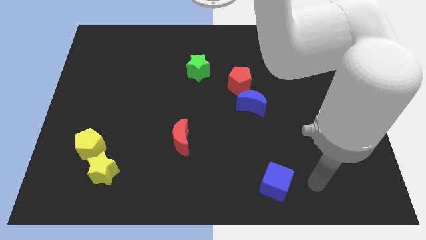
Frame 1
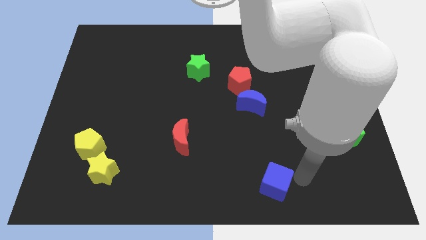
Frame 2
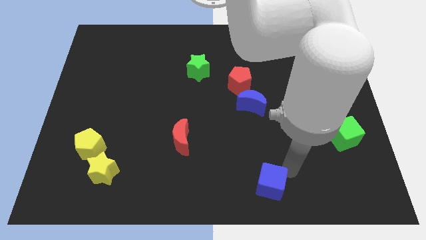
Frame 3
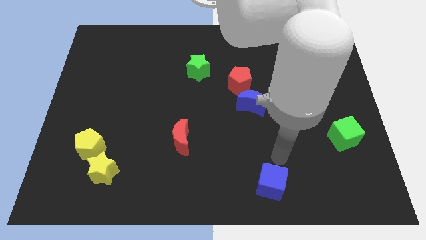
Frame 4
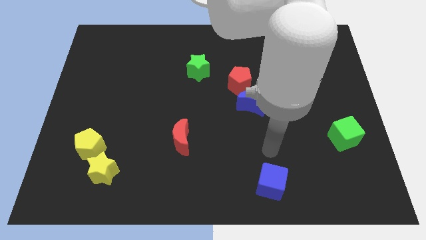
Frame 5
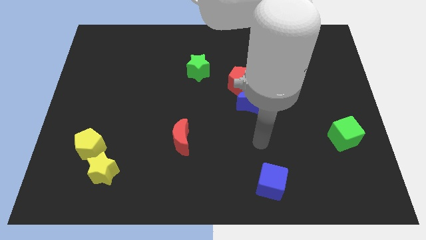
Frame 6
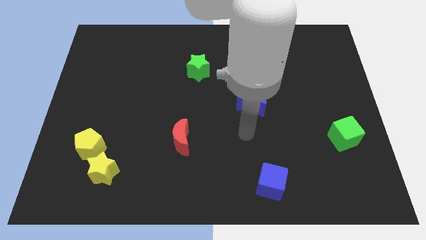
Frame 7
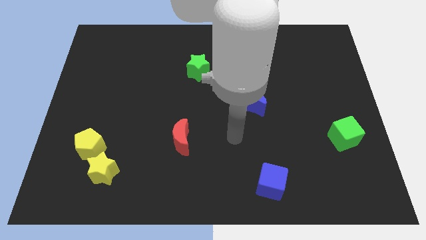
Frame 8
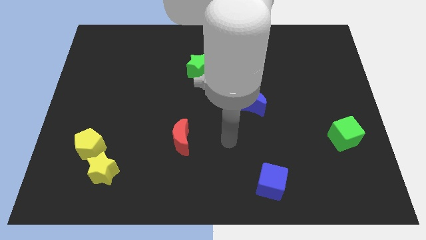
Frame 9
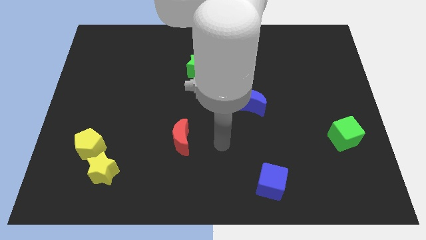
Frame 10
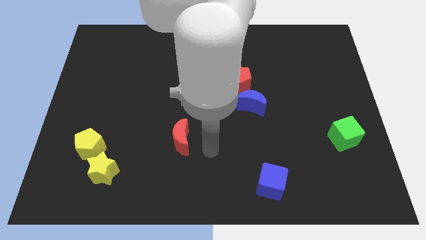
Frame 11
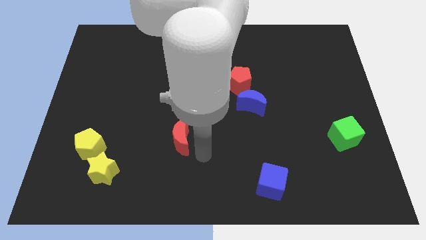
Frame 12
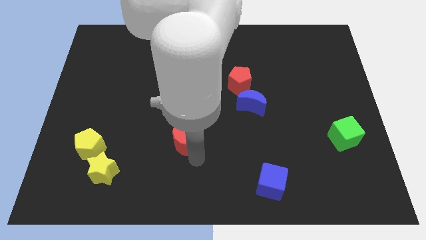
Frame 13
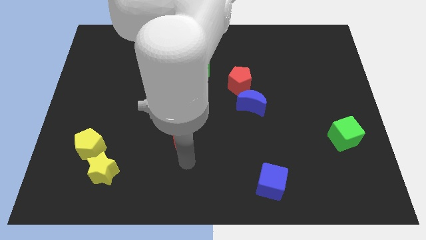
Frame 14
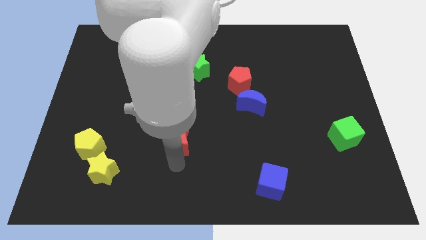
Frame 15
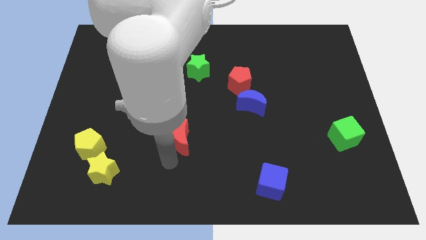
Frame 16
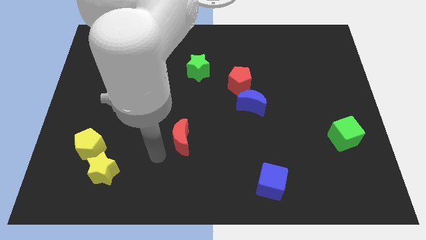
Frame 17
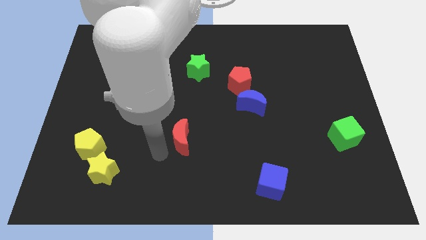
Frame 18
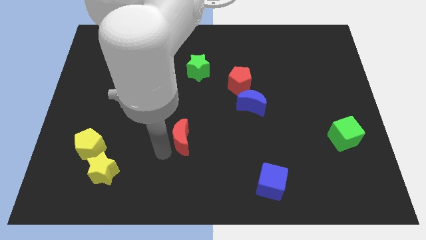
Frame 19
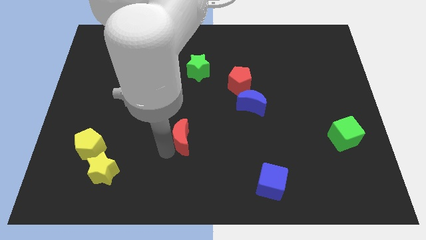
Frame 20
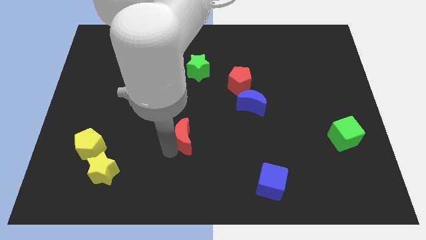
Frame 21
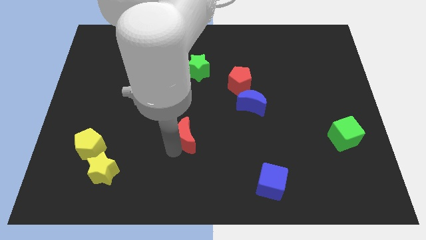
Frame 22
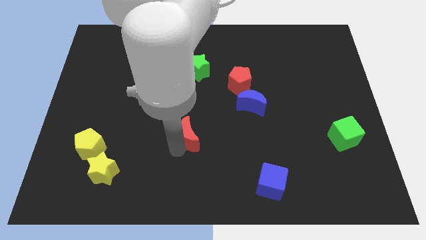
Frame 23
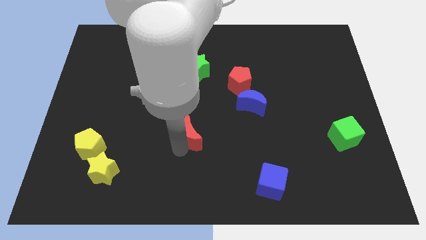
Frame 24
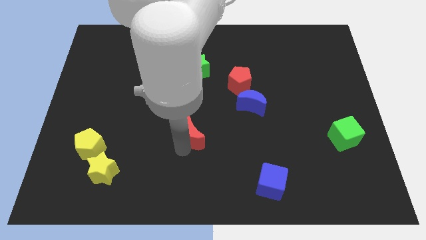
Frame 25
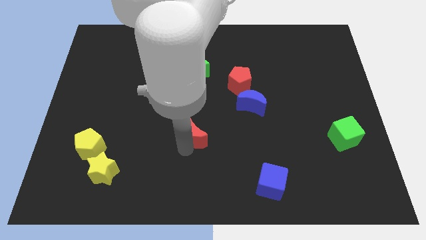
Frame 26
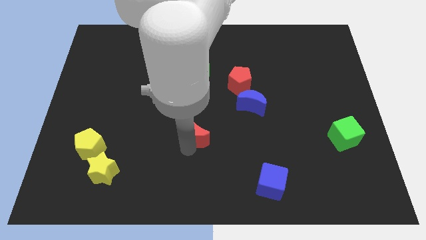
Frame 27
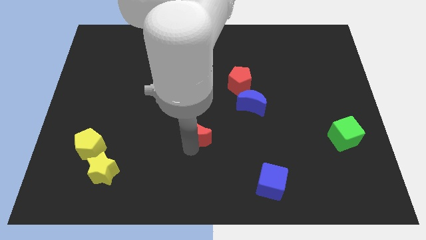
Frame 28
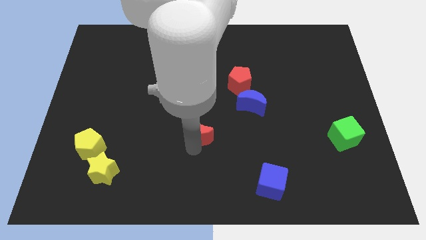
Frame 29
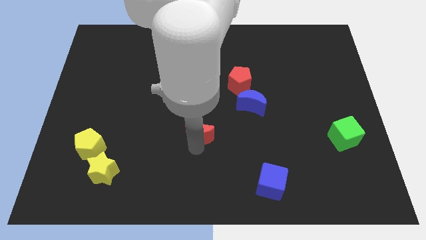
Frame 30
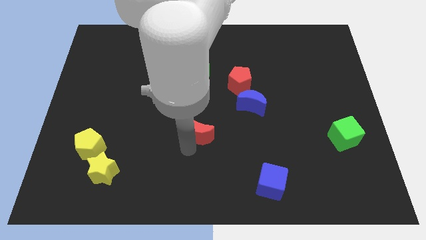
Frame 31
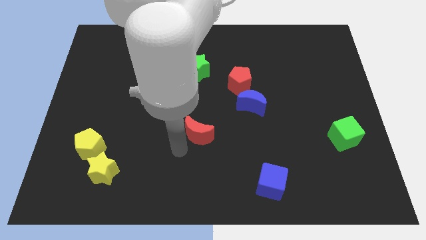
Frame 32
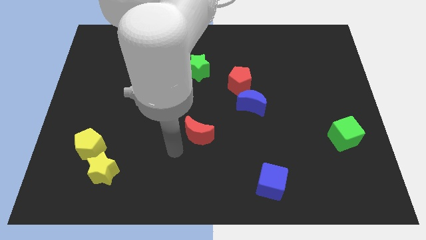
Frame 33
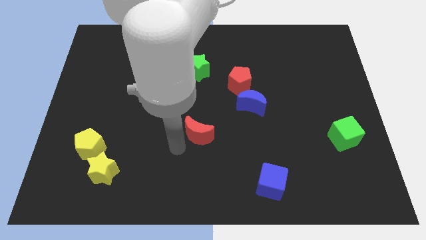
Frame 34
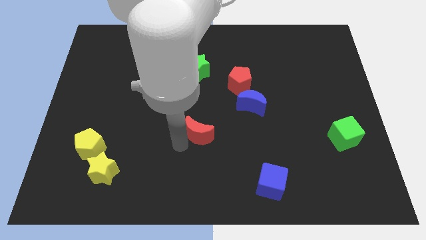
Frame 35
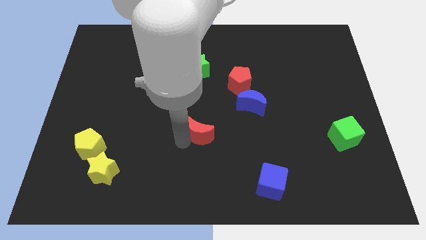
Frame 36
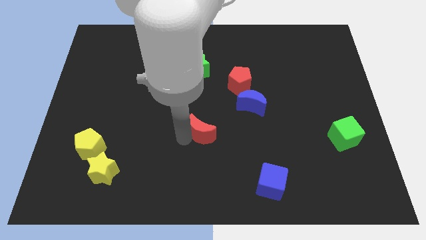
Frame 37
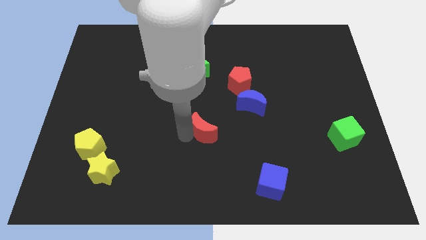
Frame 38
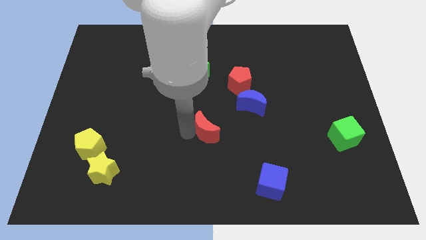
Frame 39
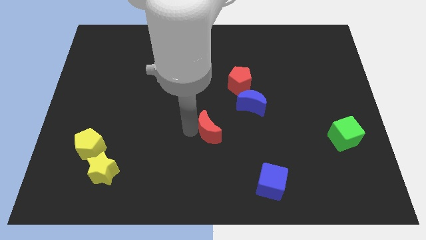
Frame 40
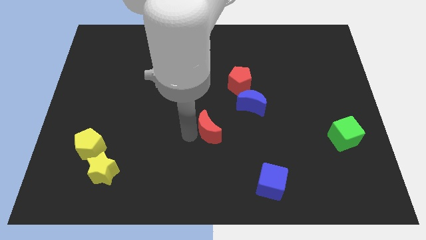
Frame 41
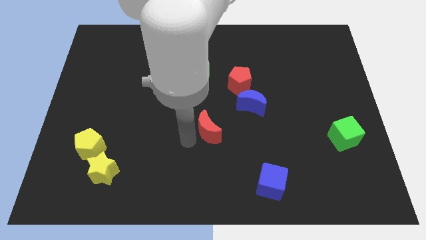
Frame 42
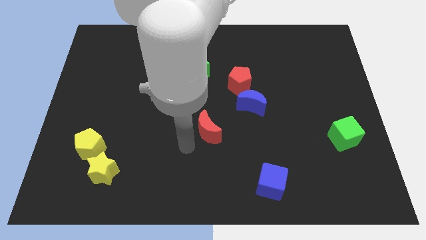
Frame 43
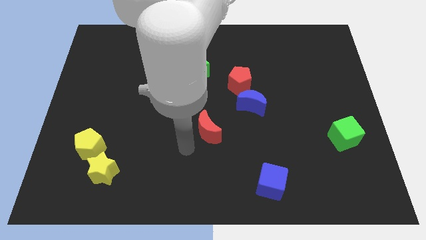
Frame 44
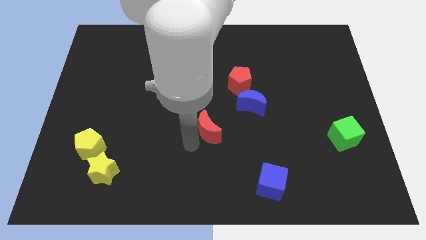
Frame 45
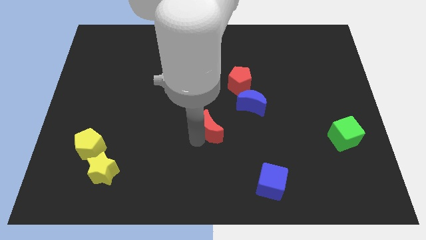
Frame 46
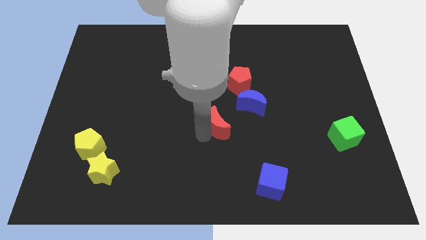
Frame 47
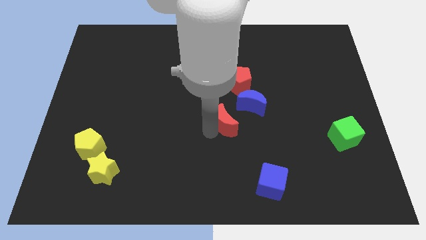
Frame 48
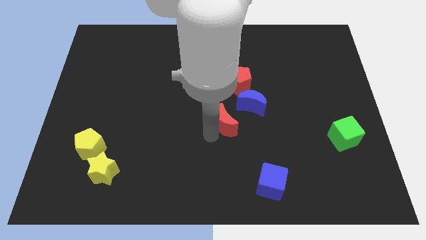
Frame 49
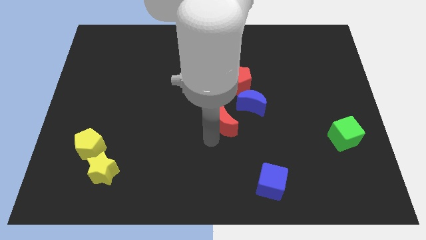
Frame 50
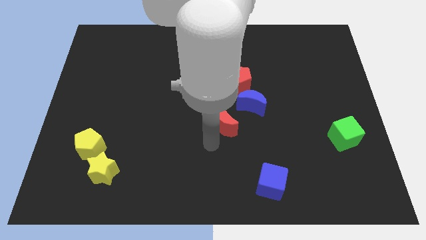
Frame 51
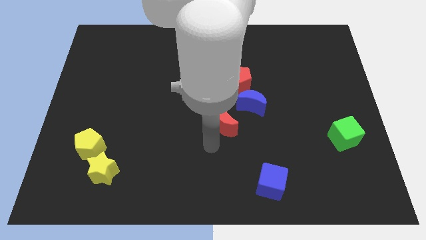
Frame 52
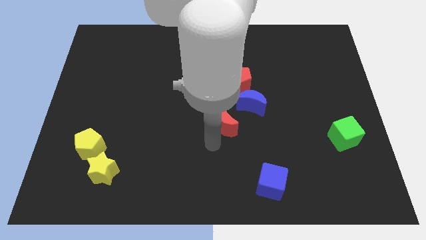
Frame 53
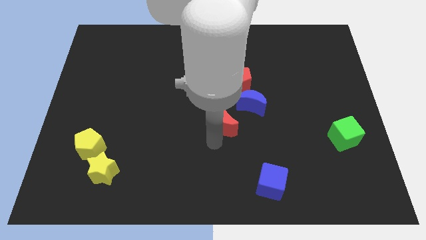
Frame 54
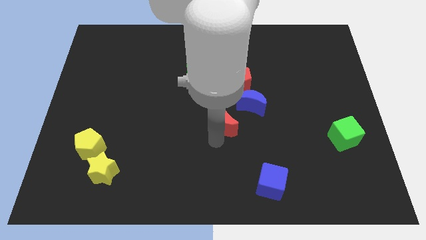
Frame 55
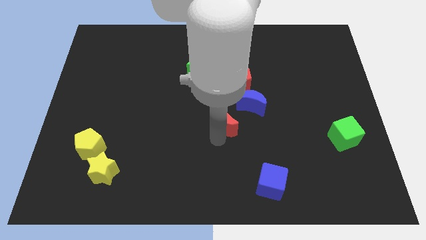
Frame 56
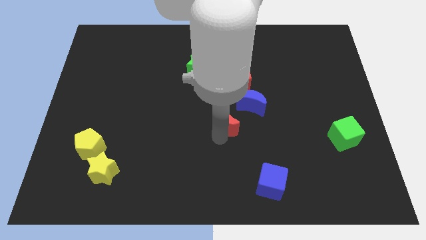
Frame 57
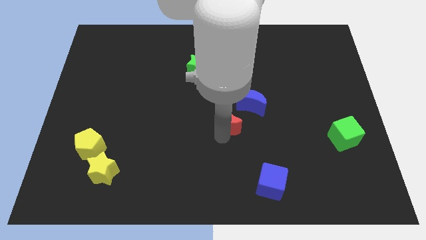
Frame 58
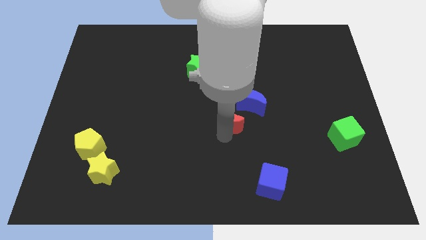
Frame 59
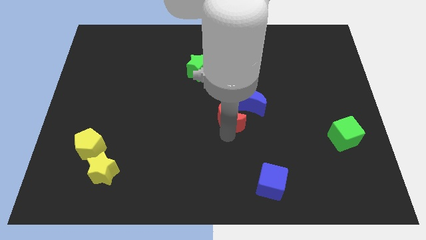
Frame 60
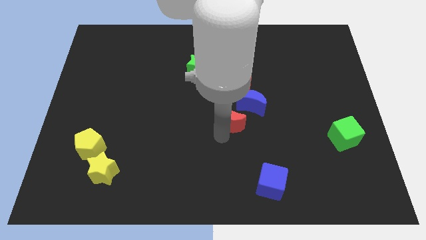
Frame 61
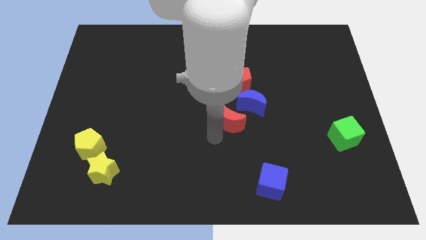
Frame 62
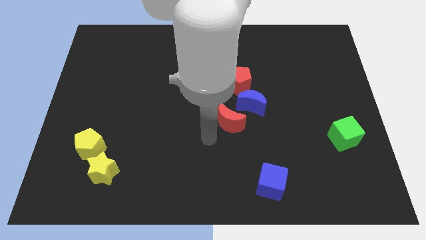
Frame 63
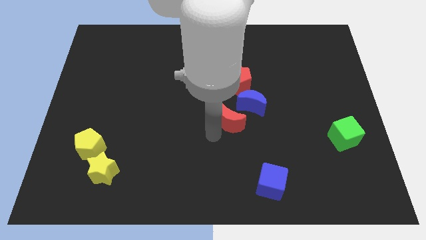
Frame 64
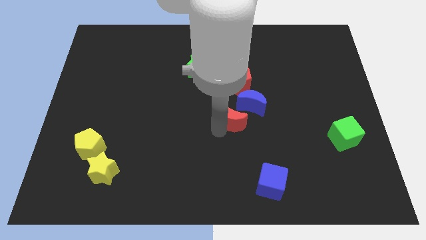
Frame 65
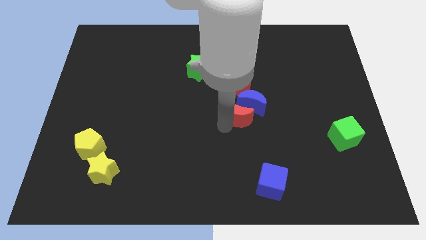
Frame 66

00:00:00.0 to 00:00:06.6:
slide the red moon close to the blue moon
